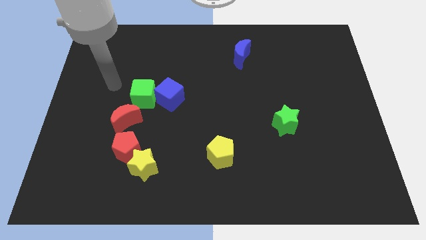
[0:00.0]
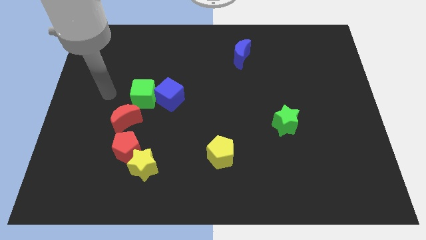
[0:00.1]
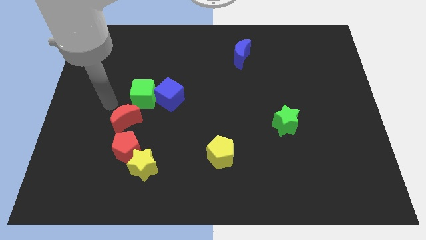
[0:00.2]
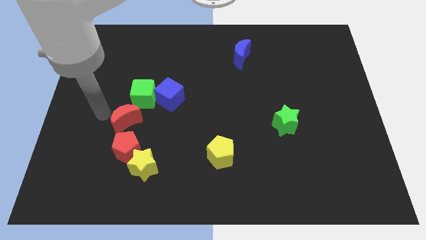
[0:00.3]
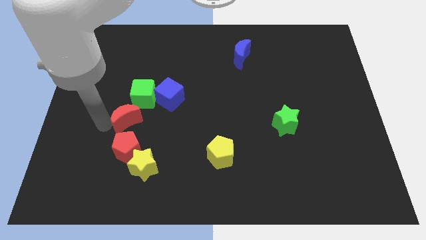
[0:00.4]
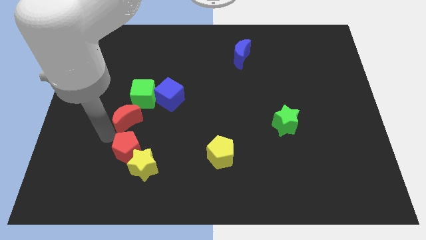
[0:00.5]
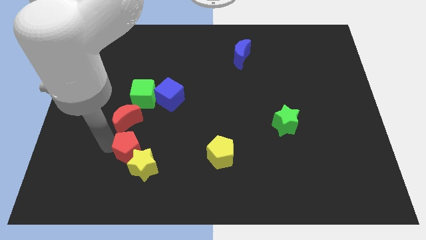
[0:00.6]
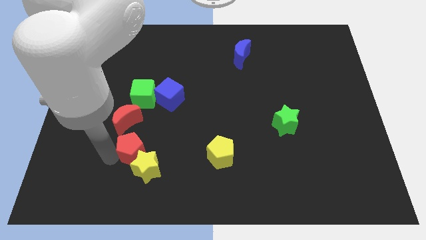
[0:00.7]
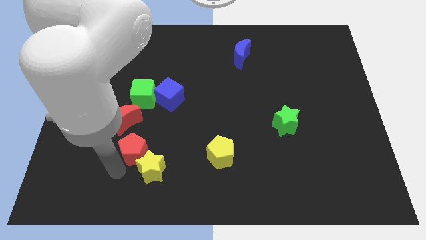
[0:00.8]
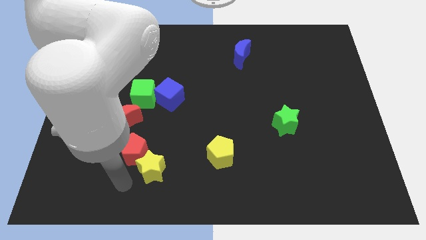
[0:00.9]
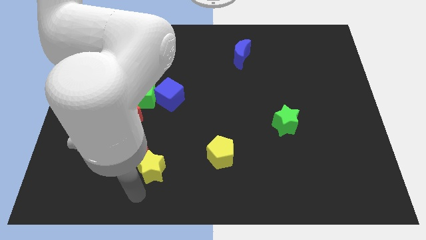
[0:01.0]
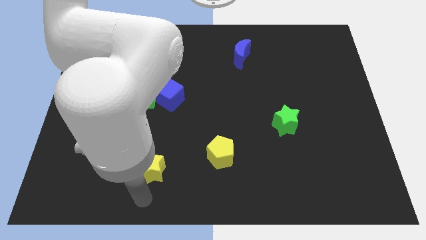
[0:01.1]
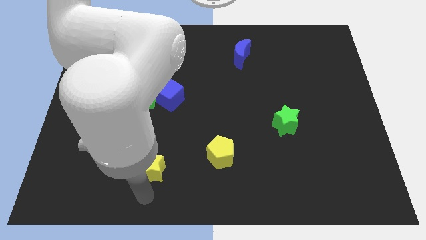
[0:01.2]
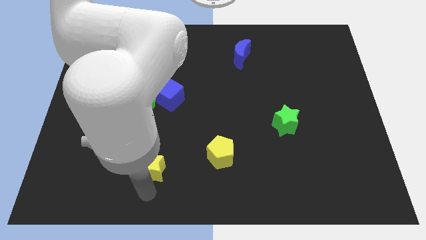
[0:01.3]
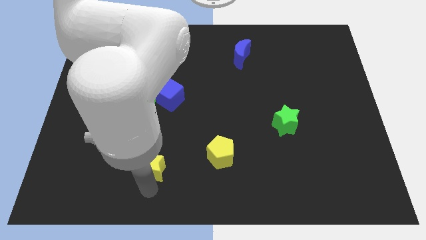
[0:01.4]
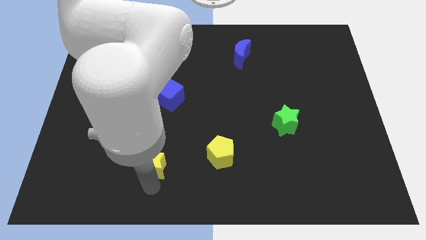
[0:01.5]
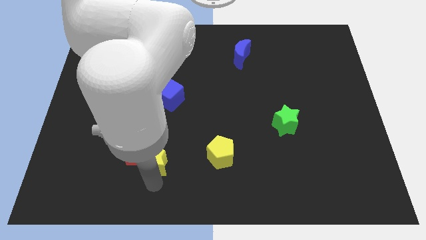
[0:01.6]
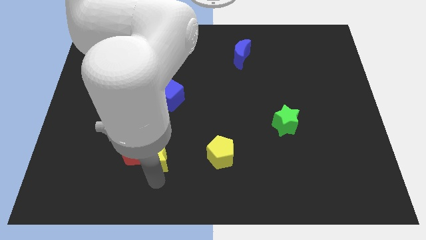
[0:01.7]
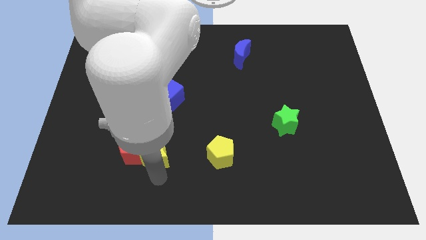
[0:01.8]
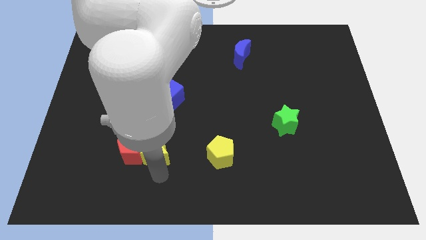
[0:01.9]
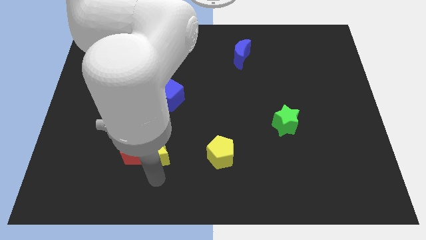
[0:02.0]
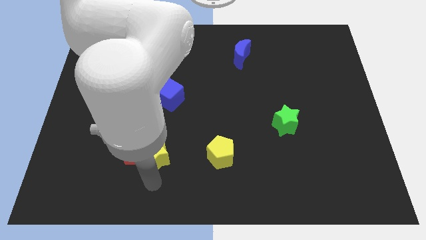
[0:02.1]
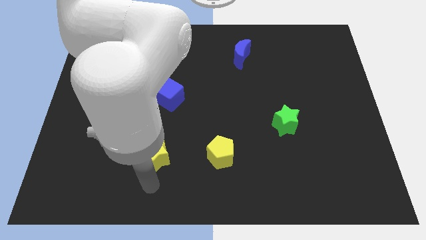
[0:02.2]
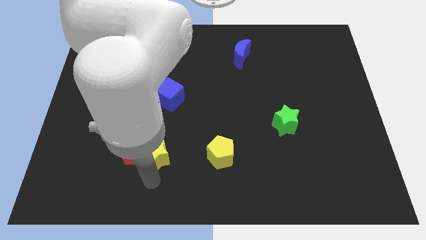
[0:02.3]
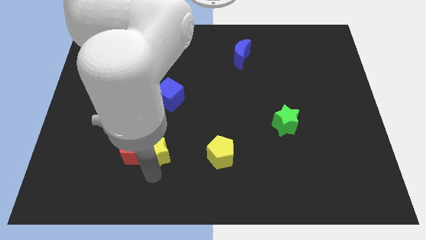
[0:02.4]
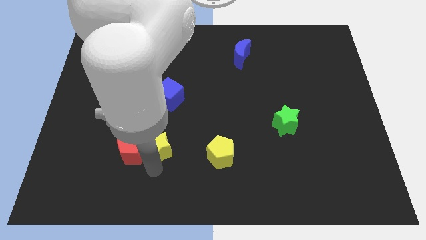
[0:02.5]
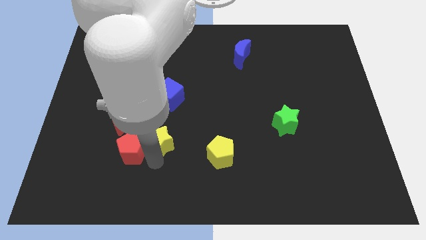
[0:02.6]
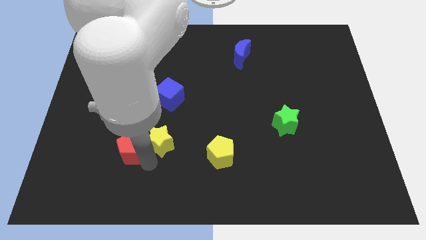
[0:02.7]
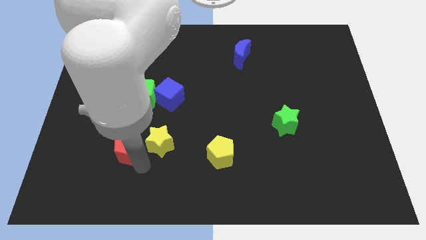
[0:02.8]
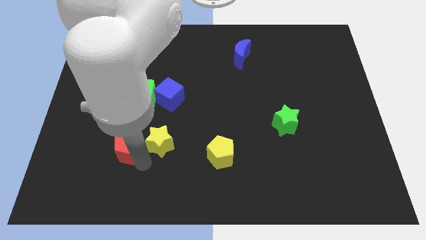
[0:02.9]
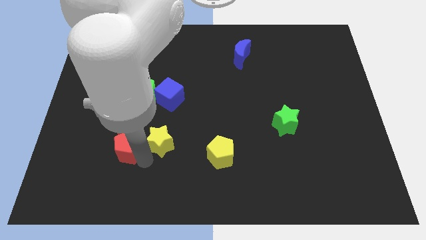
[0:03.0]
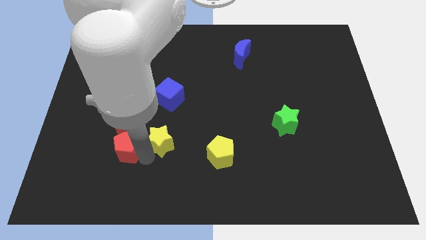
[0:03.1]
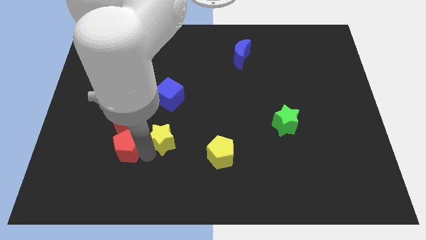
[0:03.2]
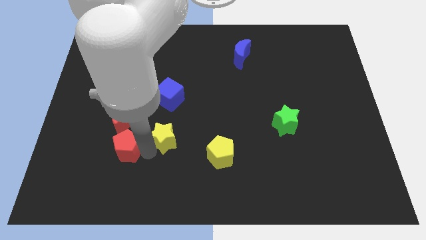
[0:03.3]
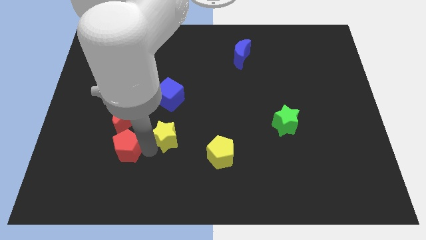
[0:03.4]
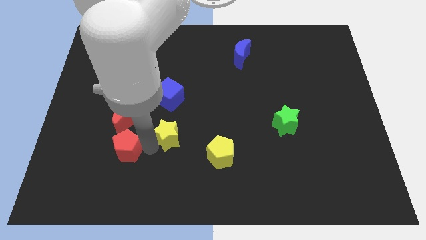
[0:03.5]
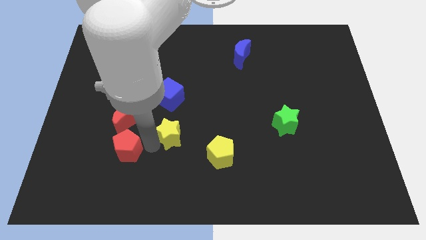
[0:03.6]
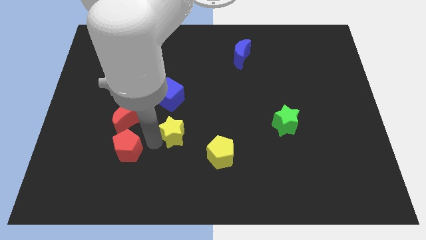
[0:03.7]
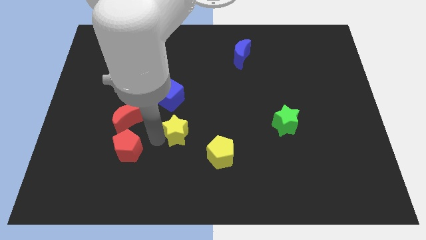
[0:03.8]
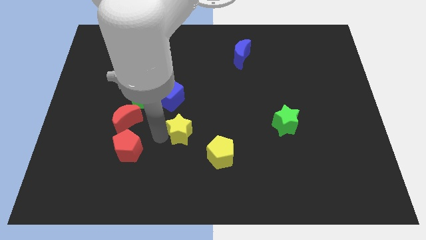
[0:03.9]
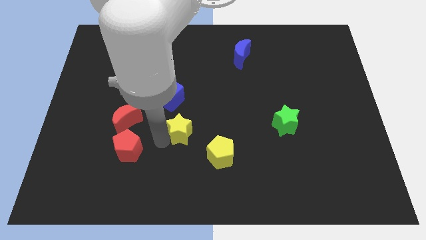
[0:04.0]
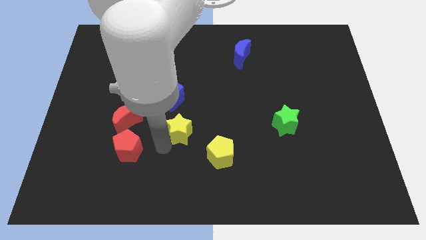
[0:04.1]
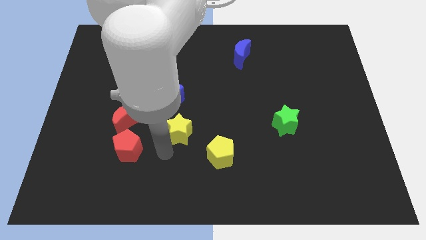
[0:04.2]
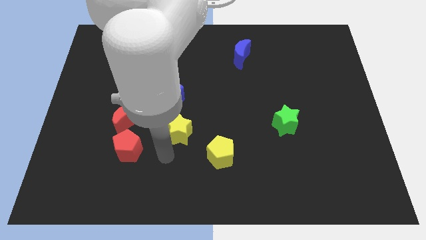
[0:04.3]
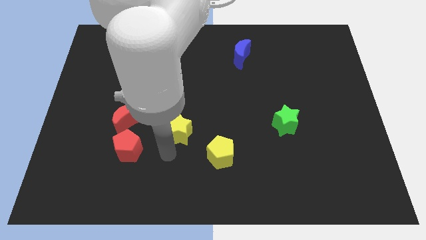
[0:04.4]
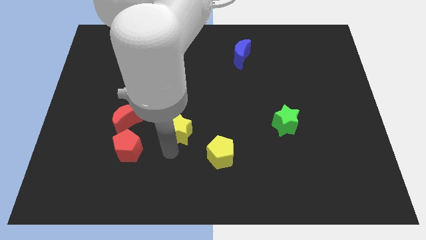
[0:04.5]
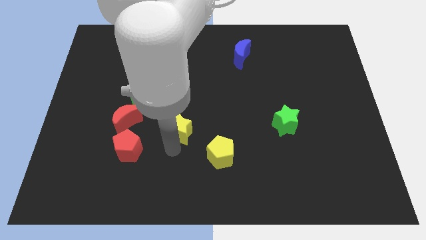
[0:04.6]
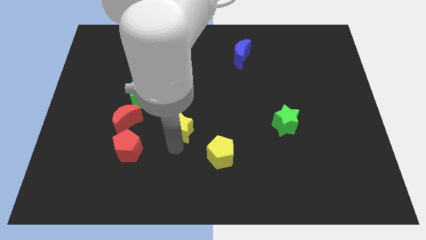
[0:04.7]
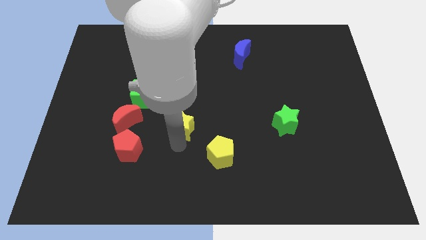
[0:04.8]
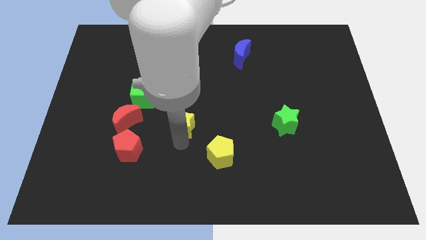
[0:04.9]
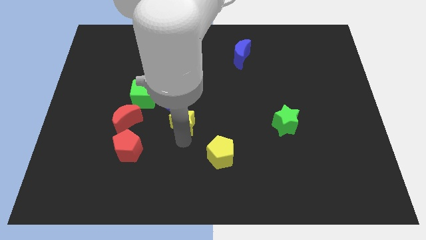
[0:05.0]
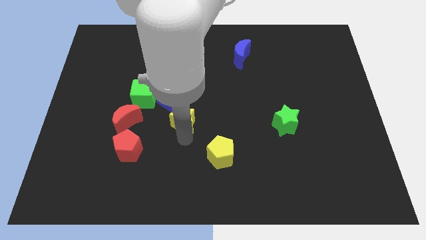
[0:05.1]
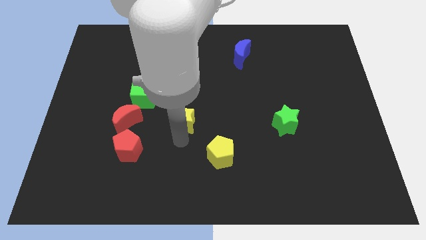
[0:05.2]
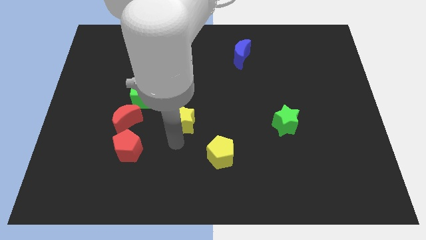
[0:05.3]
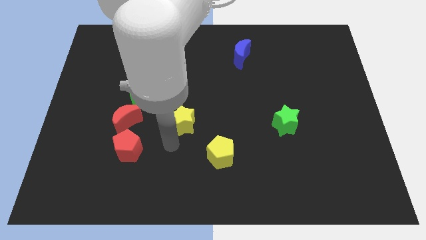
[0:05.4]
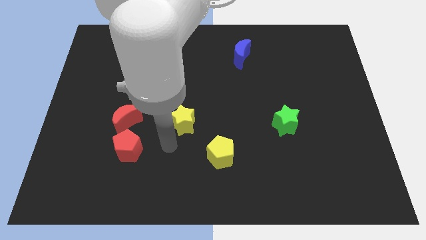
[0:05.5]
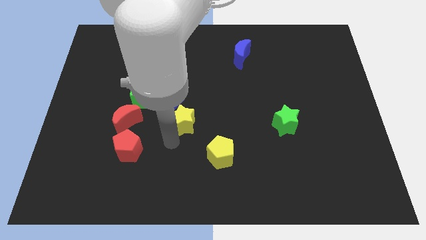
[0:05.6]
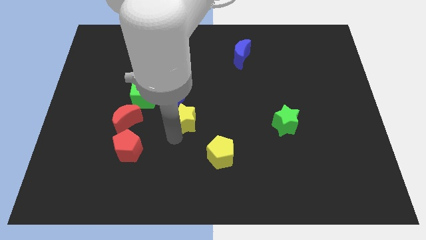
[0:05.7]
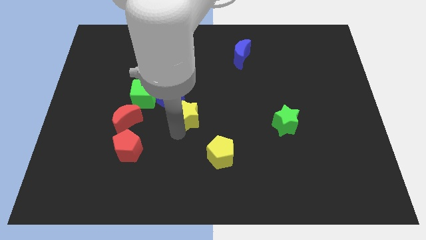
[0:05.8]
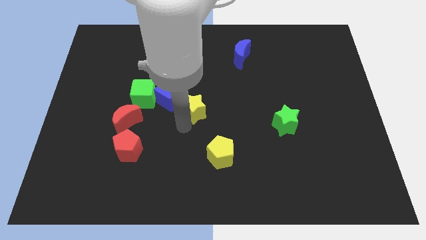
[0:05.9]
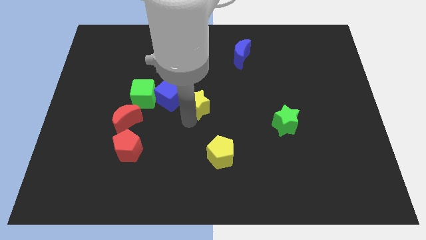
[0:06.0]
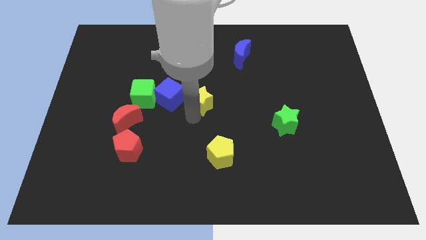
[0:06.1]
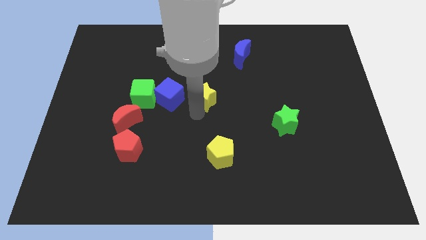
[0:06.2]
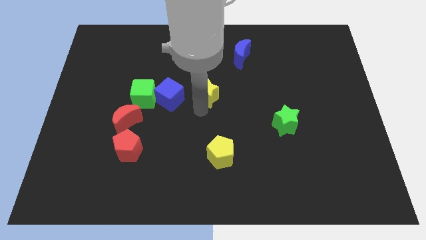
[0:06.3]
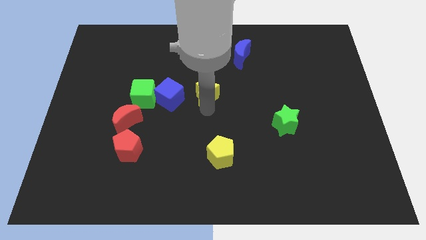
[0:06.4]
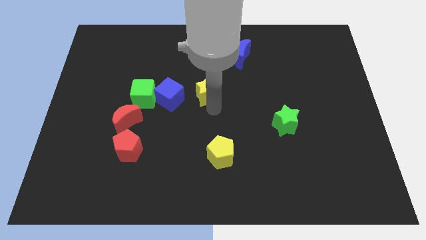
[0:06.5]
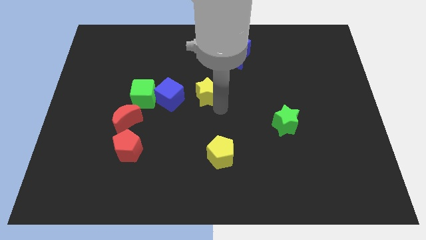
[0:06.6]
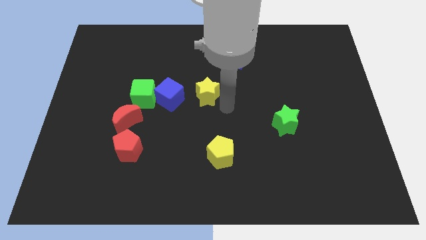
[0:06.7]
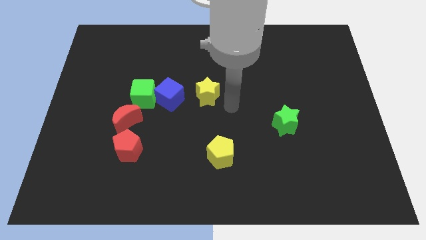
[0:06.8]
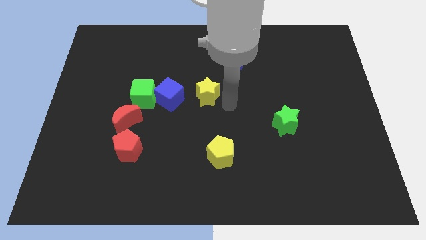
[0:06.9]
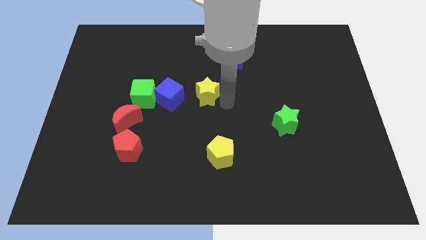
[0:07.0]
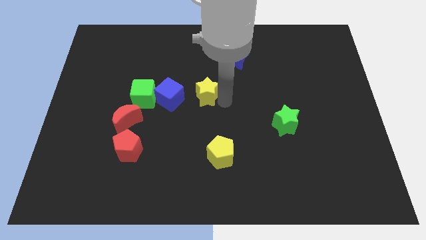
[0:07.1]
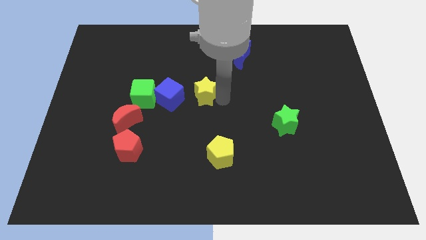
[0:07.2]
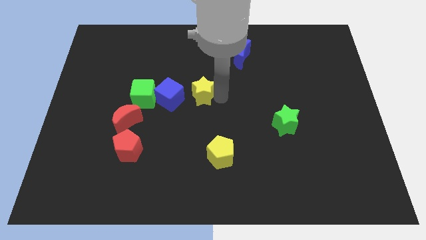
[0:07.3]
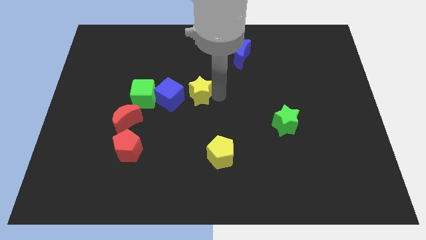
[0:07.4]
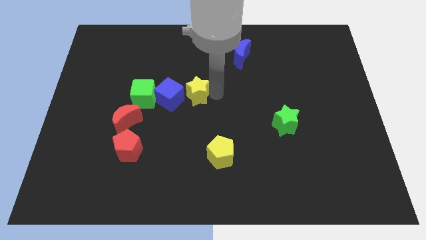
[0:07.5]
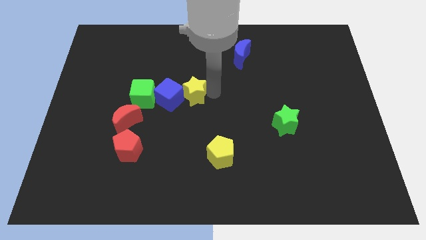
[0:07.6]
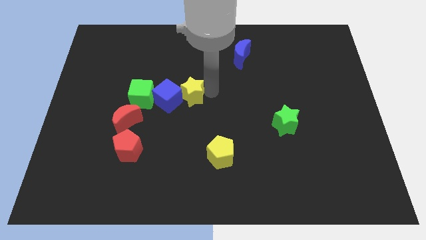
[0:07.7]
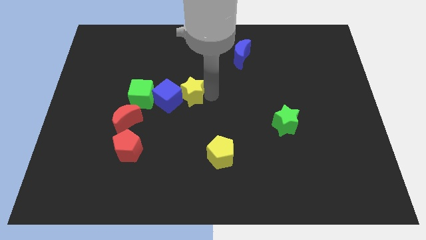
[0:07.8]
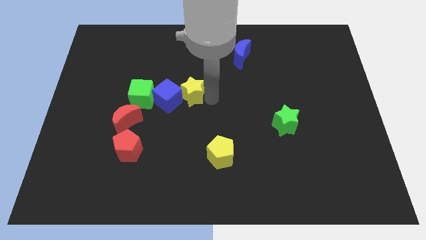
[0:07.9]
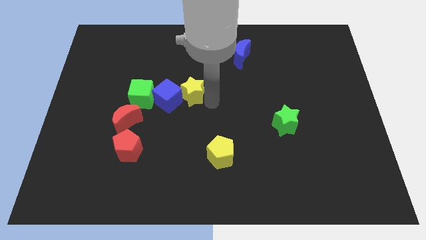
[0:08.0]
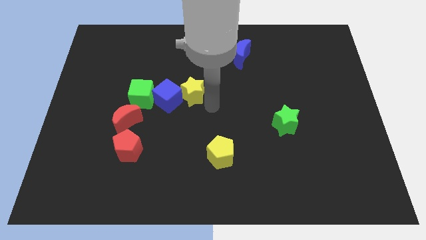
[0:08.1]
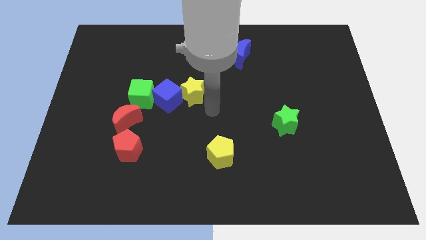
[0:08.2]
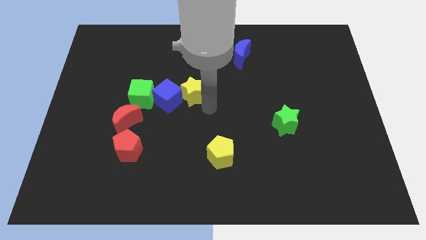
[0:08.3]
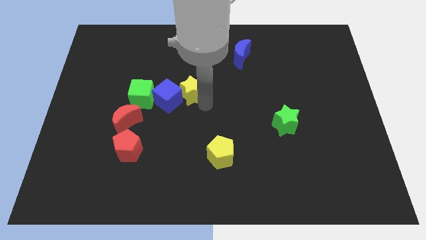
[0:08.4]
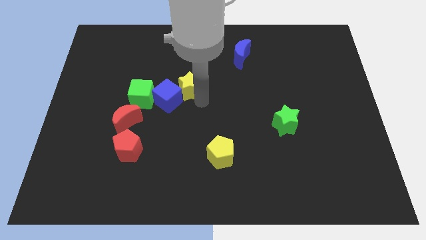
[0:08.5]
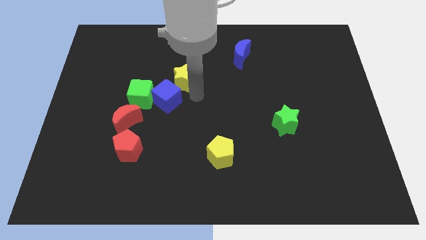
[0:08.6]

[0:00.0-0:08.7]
slide the yellow star above the blue cube
